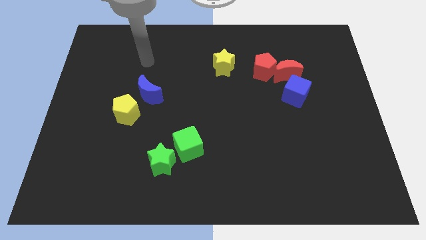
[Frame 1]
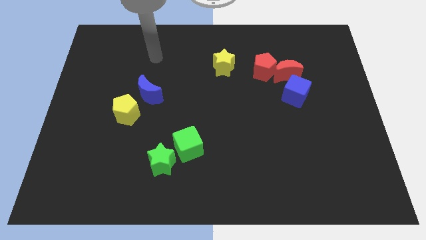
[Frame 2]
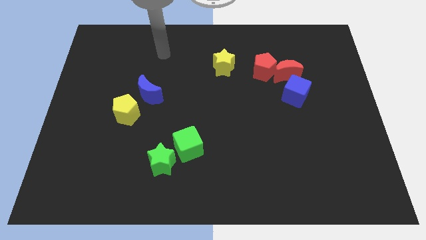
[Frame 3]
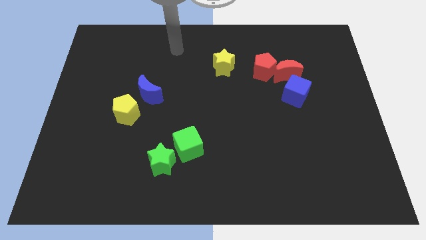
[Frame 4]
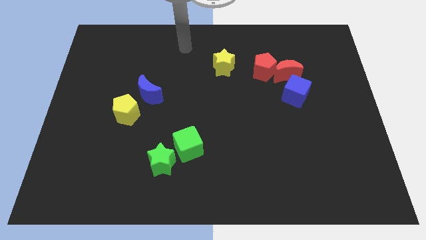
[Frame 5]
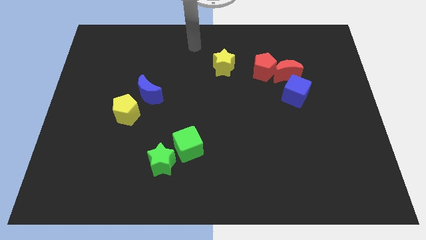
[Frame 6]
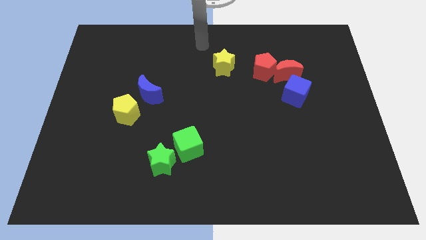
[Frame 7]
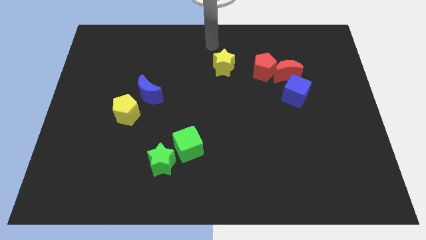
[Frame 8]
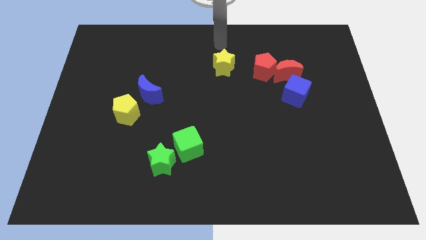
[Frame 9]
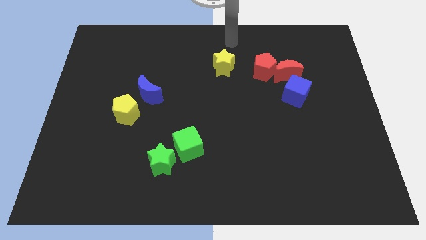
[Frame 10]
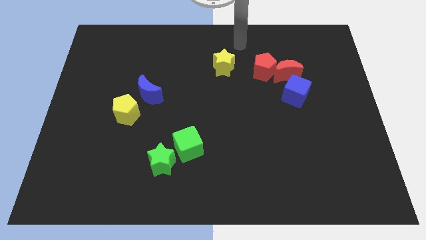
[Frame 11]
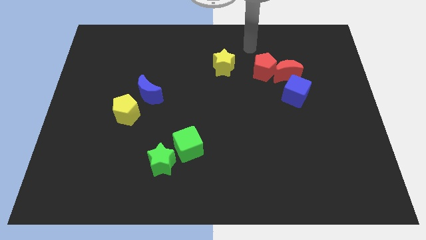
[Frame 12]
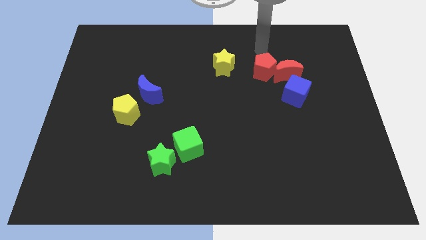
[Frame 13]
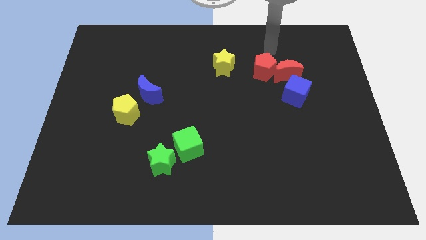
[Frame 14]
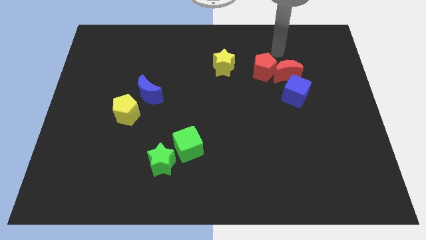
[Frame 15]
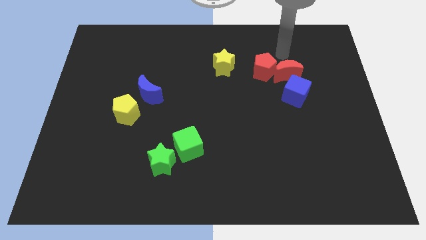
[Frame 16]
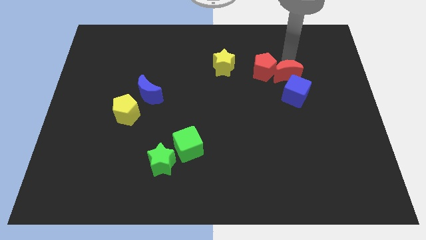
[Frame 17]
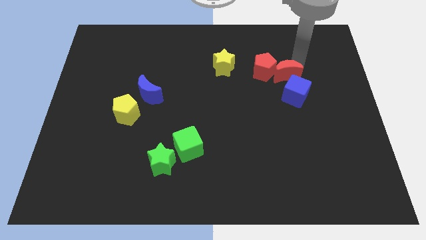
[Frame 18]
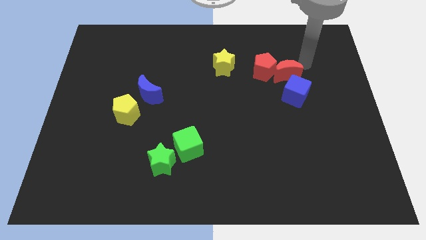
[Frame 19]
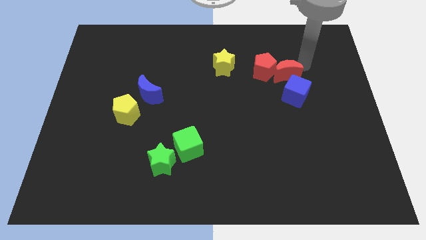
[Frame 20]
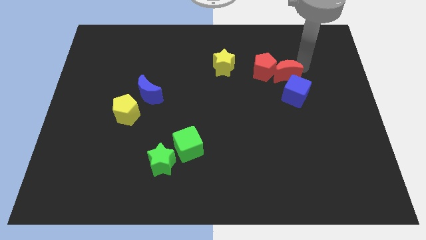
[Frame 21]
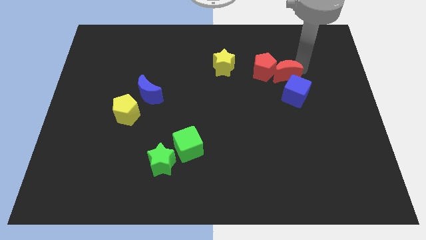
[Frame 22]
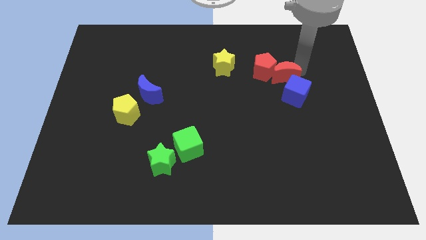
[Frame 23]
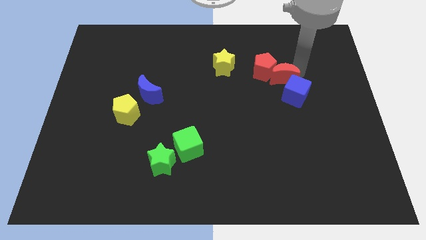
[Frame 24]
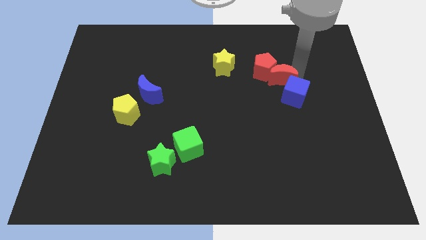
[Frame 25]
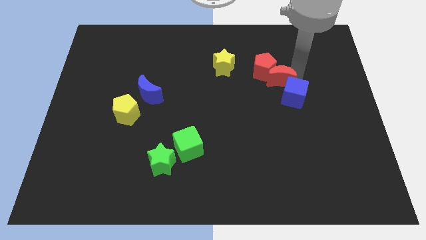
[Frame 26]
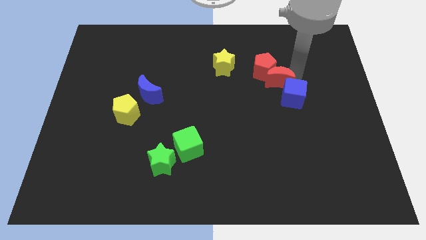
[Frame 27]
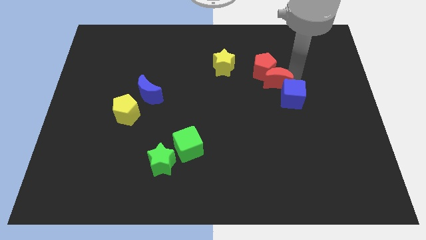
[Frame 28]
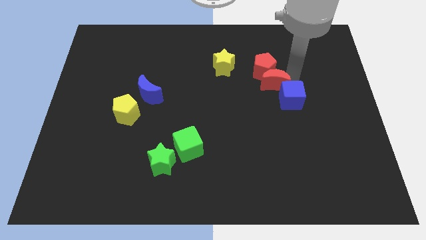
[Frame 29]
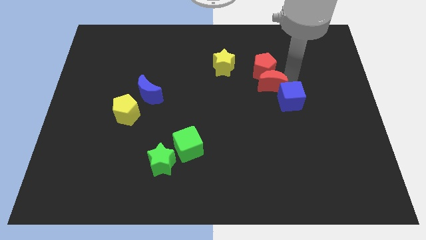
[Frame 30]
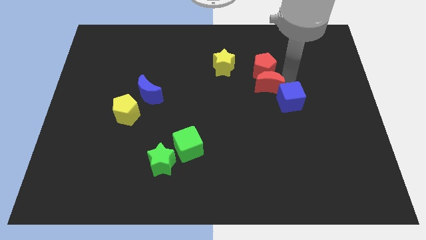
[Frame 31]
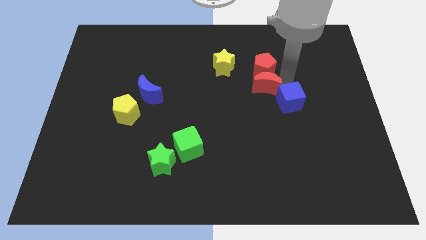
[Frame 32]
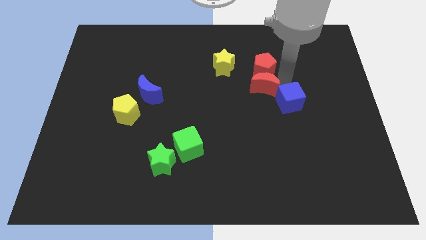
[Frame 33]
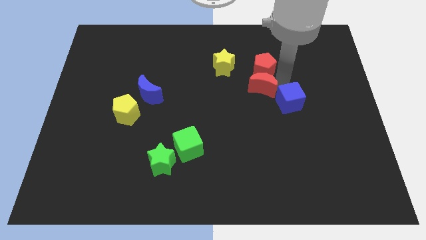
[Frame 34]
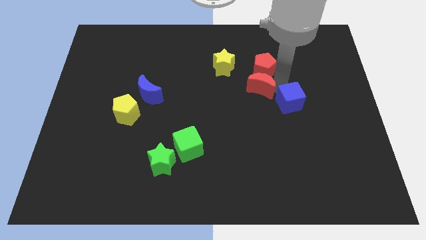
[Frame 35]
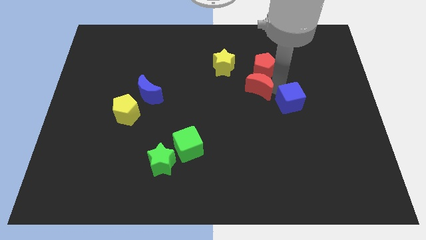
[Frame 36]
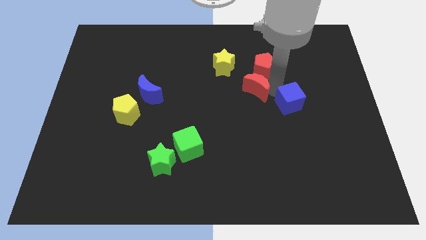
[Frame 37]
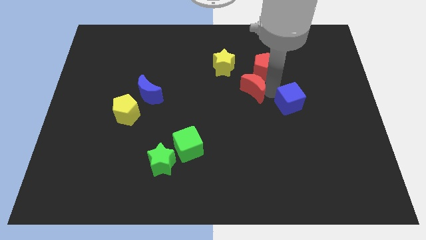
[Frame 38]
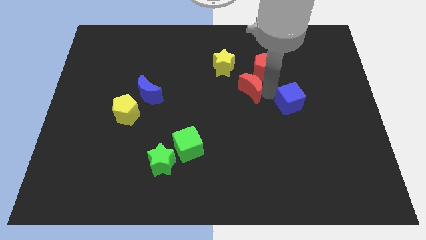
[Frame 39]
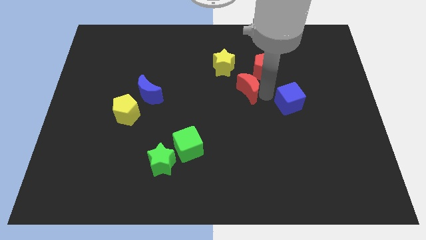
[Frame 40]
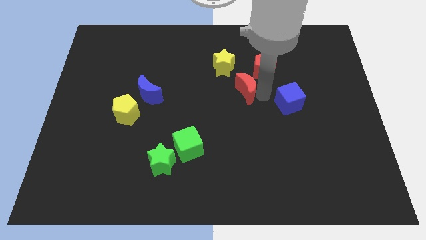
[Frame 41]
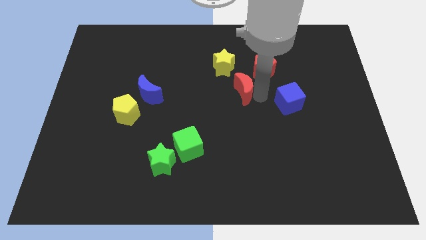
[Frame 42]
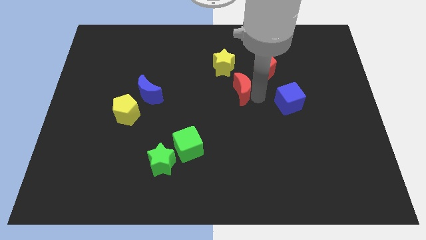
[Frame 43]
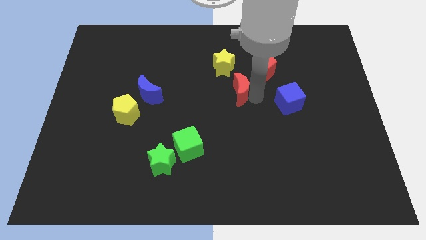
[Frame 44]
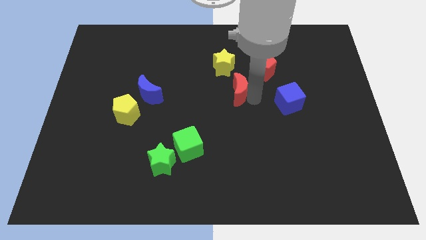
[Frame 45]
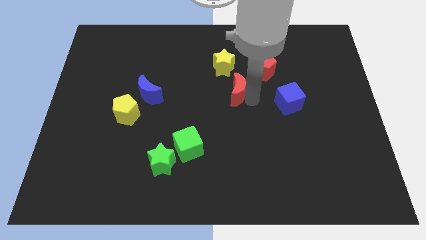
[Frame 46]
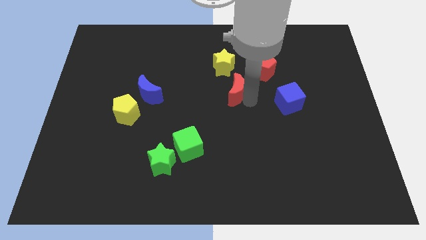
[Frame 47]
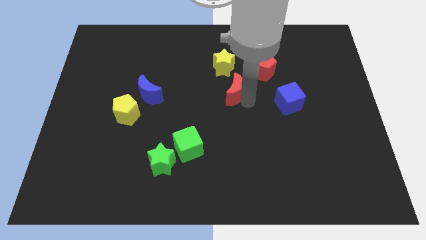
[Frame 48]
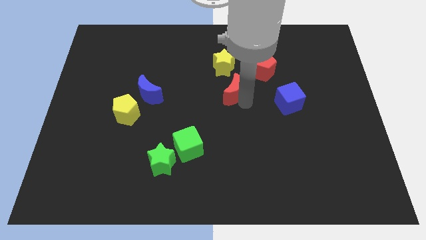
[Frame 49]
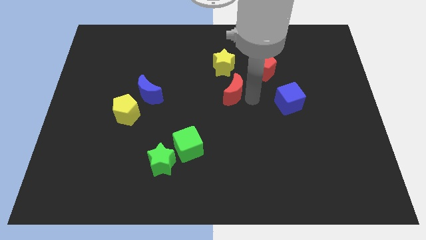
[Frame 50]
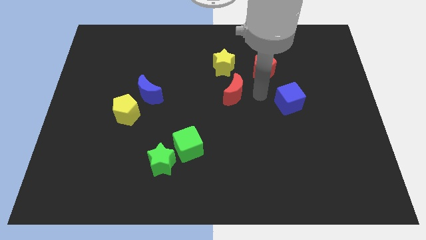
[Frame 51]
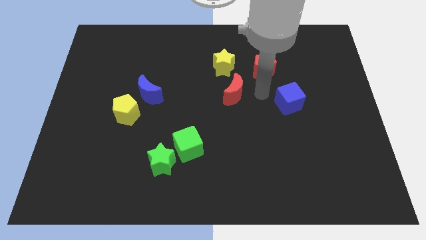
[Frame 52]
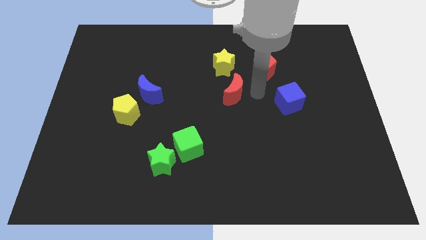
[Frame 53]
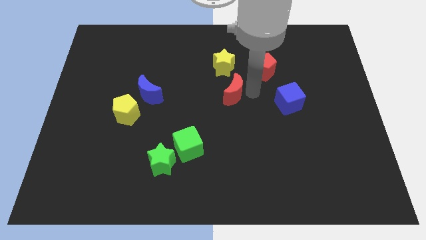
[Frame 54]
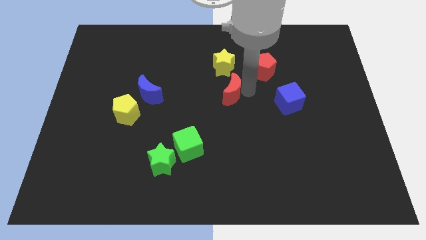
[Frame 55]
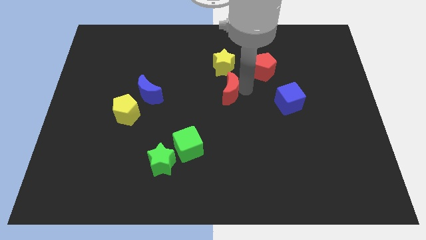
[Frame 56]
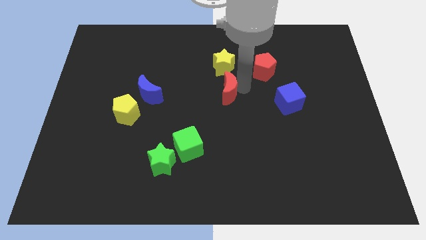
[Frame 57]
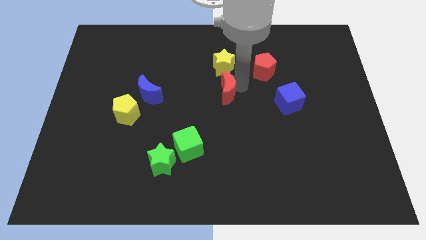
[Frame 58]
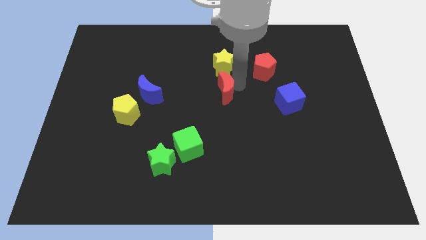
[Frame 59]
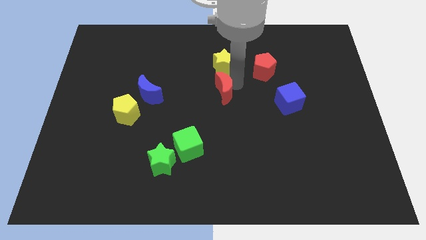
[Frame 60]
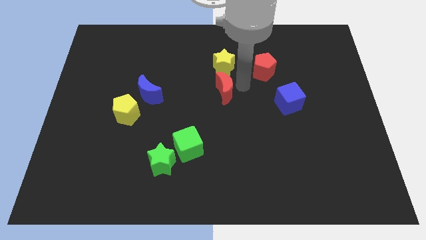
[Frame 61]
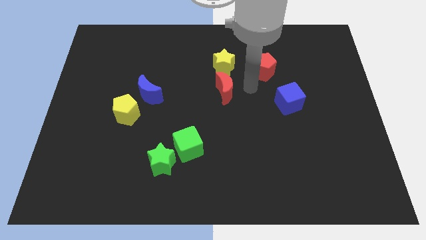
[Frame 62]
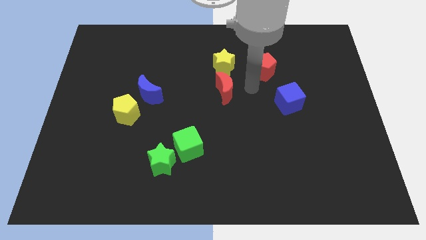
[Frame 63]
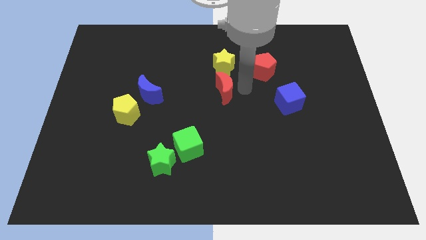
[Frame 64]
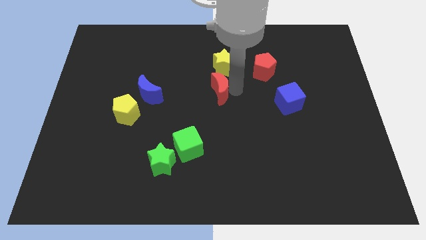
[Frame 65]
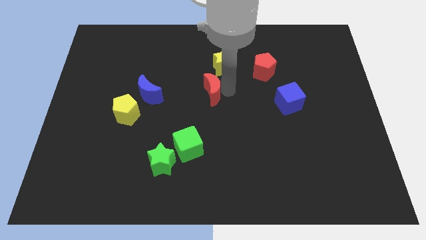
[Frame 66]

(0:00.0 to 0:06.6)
push the red moon to the right side of the blue moon

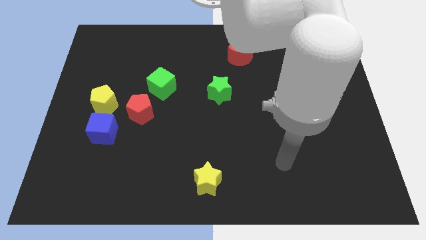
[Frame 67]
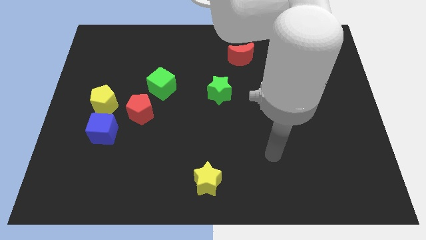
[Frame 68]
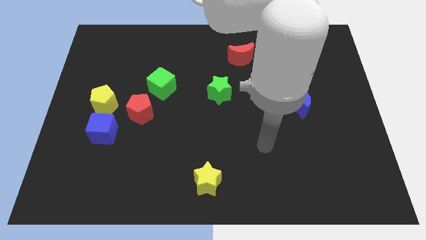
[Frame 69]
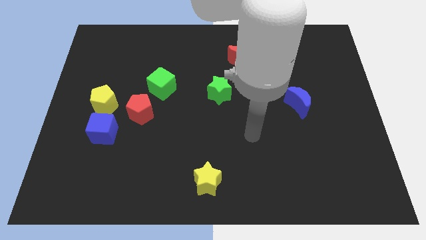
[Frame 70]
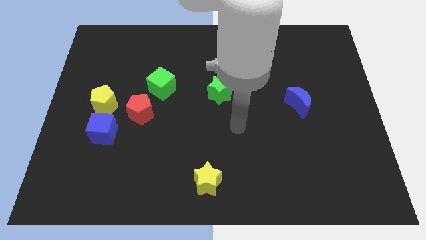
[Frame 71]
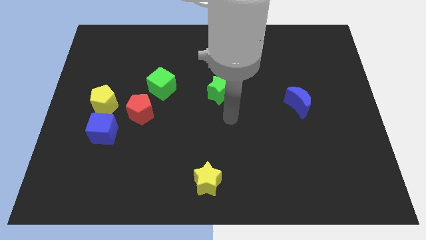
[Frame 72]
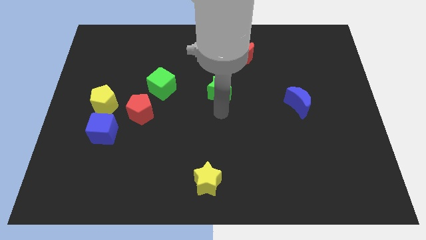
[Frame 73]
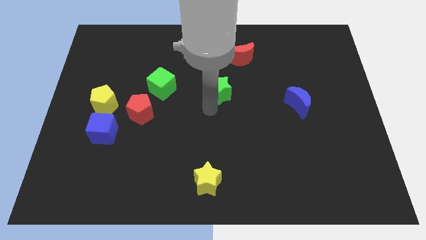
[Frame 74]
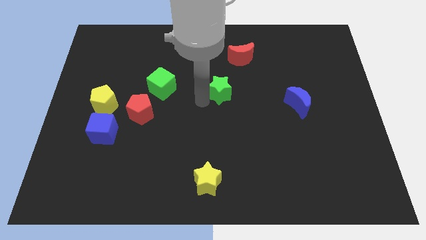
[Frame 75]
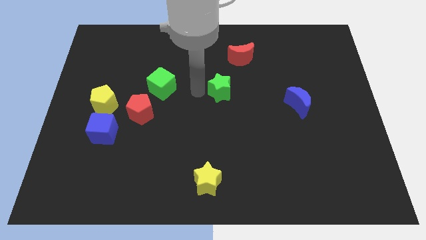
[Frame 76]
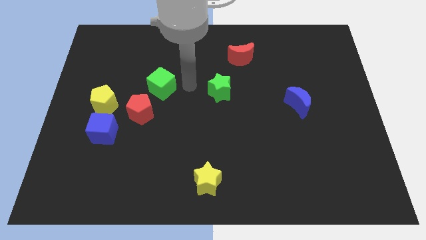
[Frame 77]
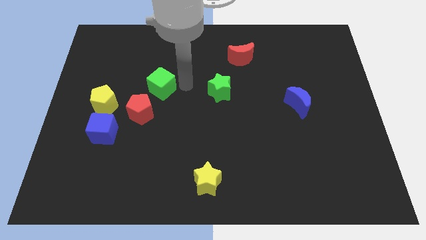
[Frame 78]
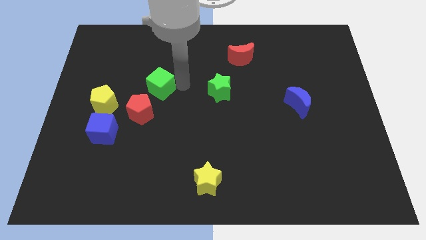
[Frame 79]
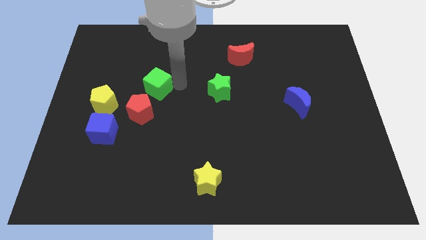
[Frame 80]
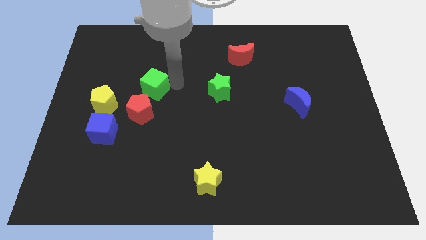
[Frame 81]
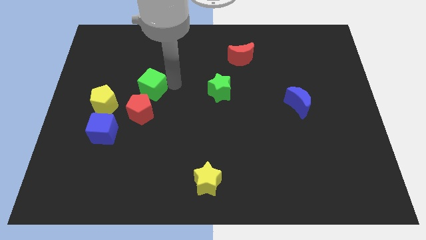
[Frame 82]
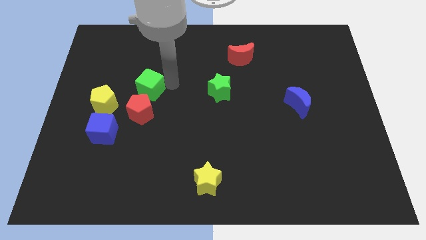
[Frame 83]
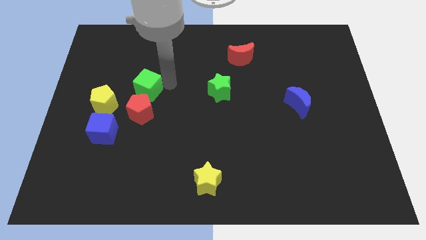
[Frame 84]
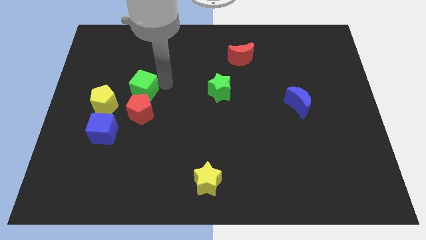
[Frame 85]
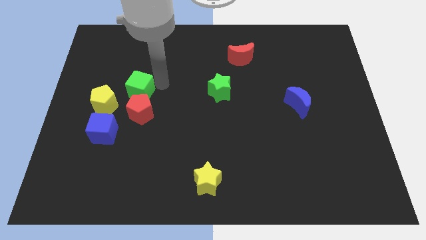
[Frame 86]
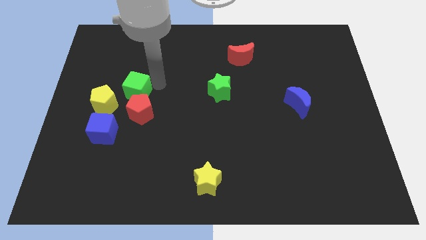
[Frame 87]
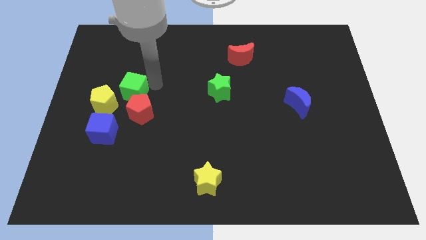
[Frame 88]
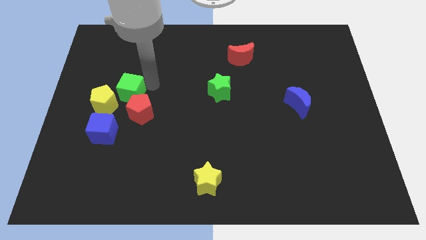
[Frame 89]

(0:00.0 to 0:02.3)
push the green cube above the blue cube
